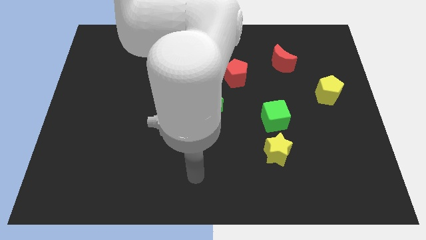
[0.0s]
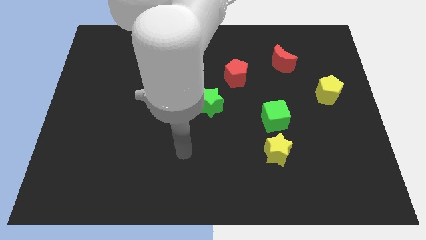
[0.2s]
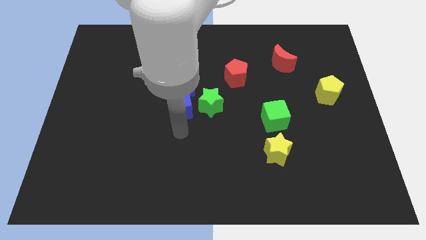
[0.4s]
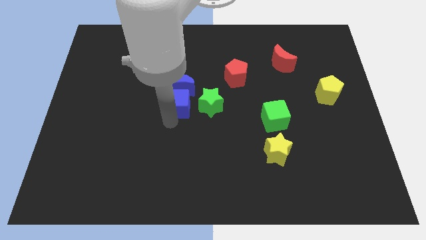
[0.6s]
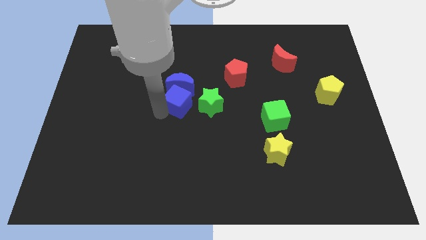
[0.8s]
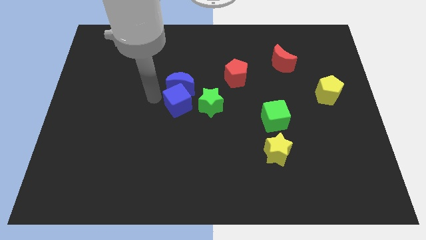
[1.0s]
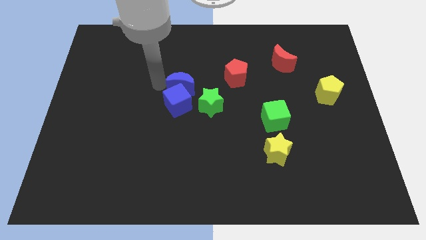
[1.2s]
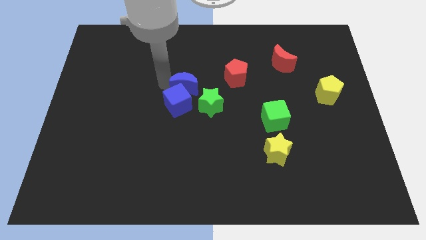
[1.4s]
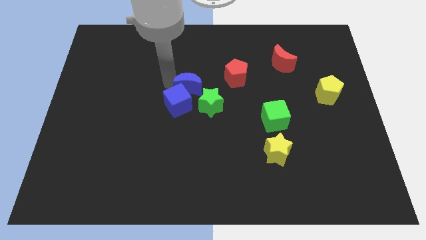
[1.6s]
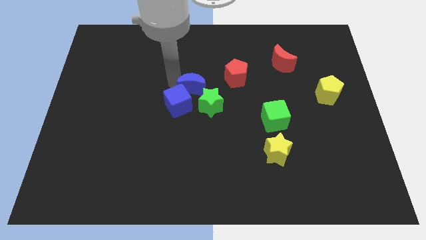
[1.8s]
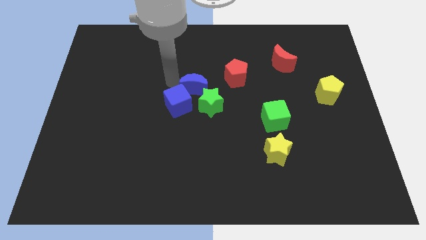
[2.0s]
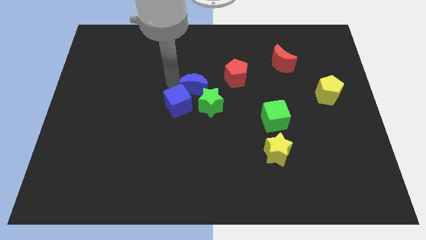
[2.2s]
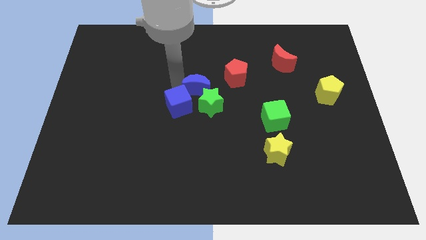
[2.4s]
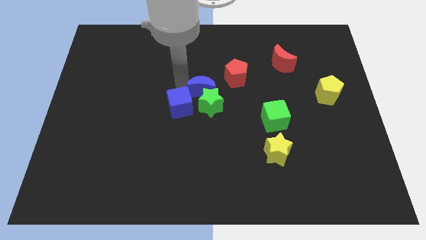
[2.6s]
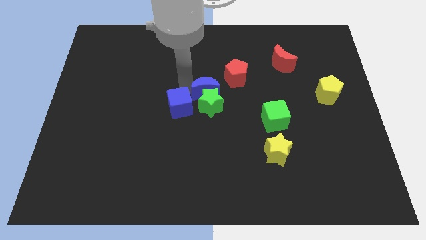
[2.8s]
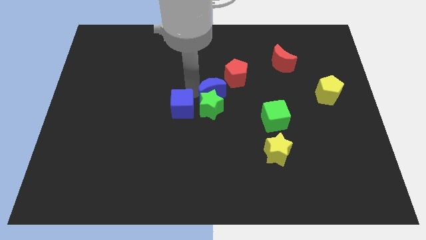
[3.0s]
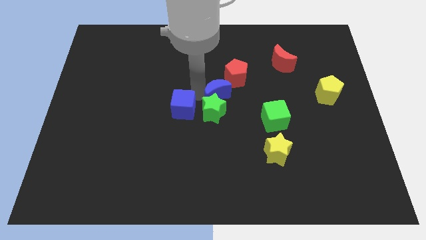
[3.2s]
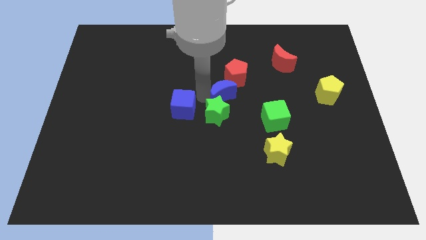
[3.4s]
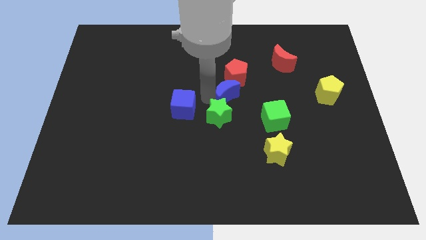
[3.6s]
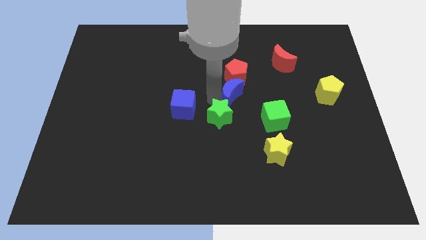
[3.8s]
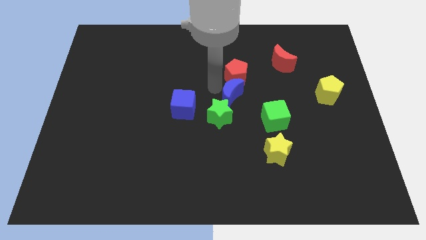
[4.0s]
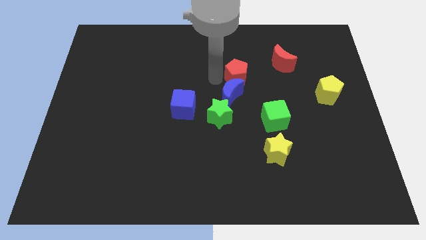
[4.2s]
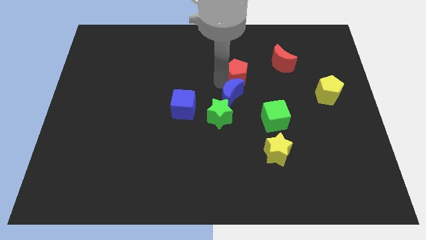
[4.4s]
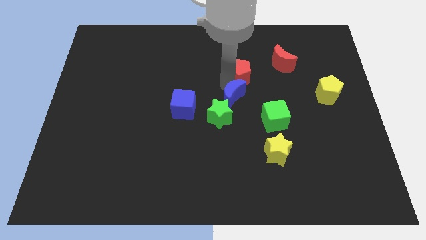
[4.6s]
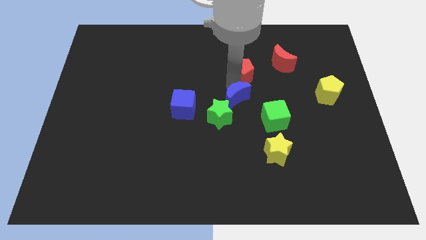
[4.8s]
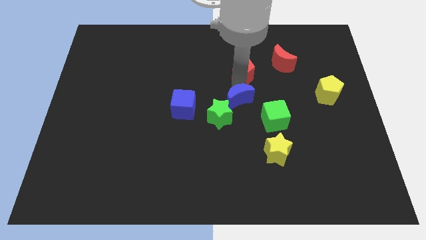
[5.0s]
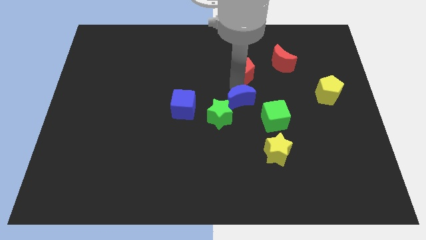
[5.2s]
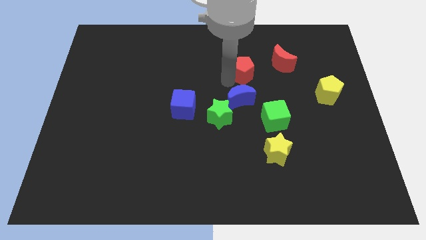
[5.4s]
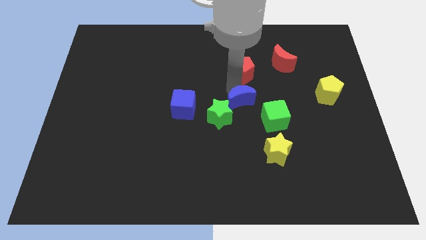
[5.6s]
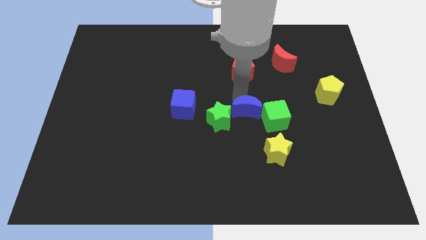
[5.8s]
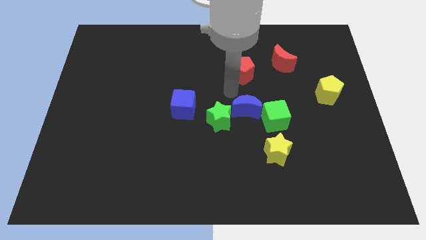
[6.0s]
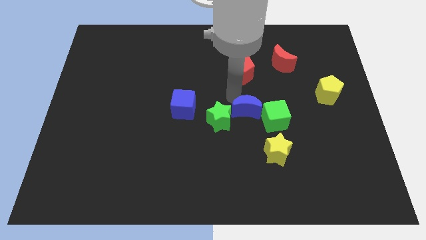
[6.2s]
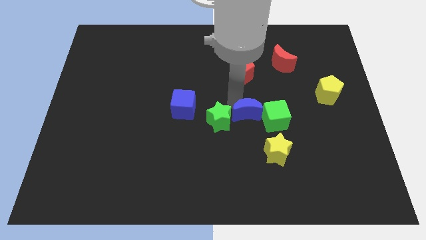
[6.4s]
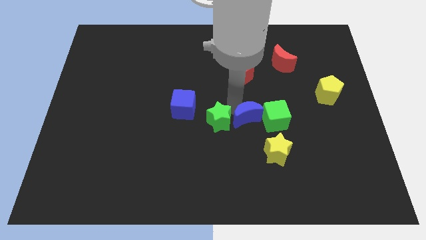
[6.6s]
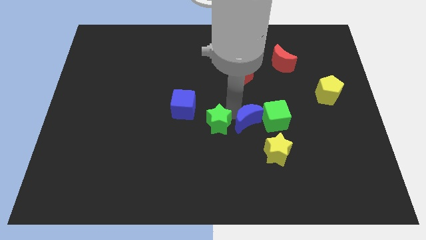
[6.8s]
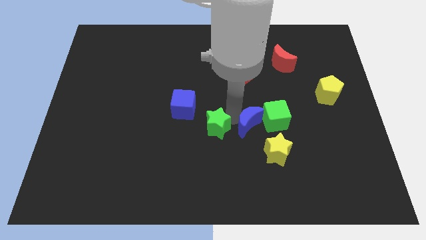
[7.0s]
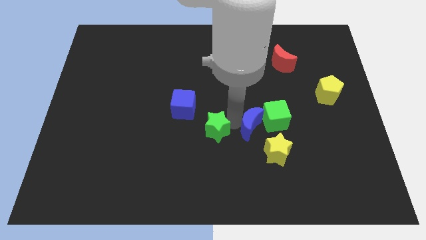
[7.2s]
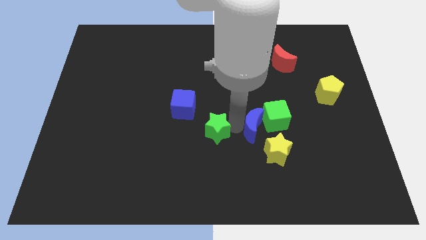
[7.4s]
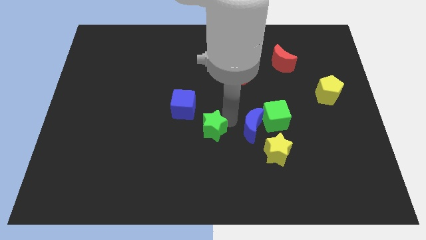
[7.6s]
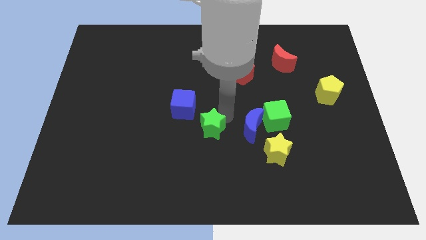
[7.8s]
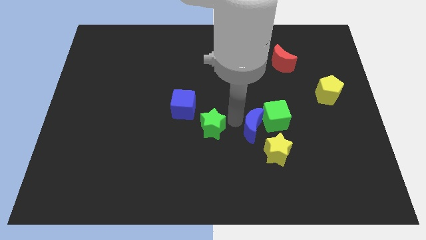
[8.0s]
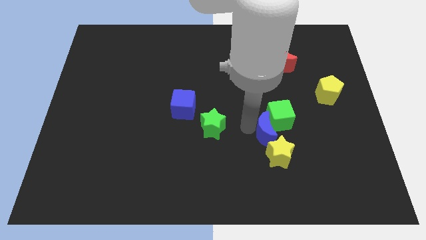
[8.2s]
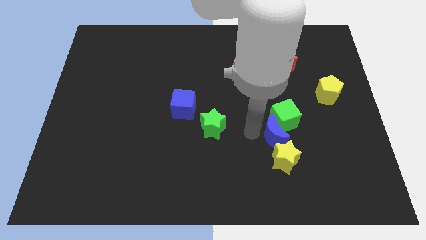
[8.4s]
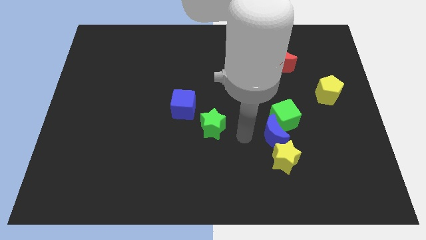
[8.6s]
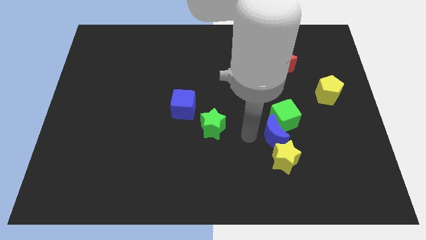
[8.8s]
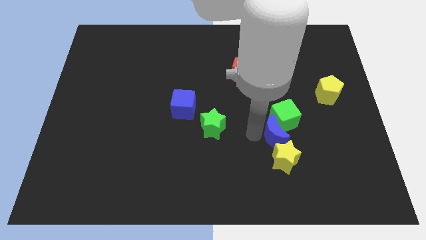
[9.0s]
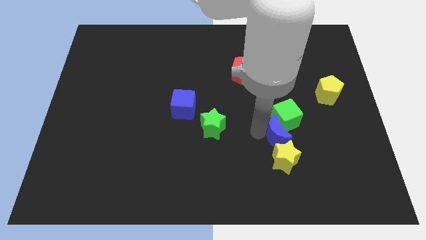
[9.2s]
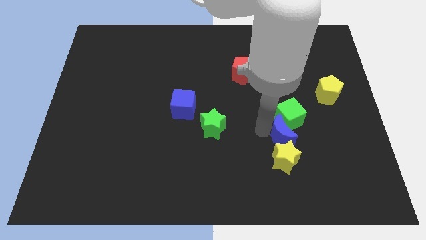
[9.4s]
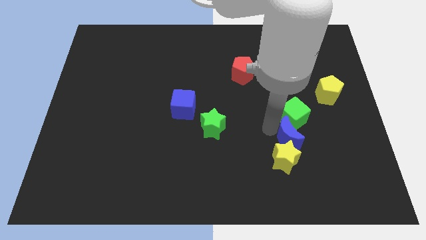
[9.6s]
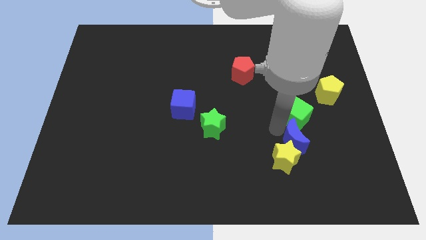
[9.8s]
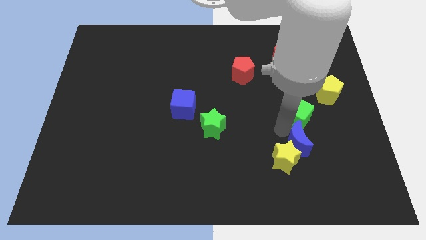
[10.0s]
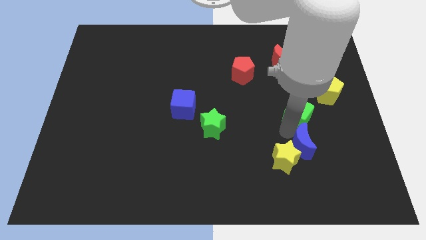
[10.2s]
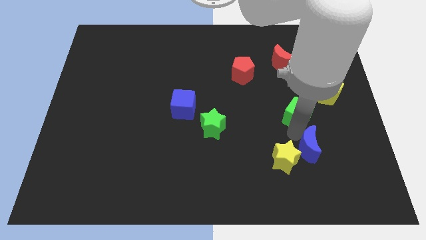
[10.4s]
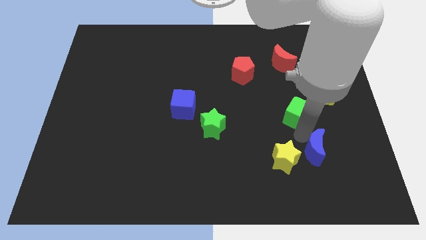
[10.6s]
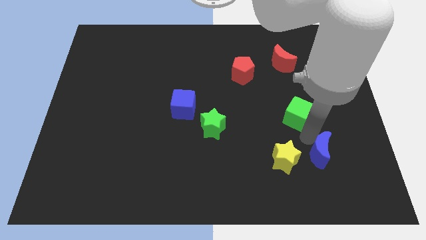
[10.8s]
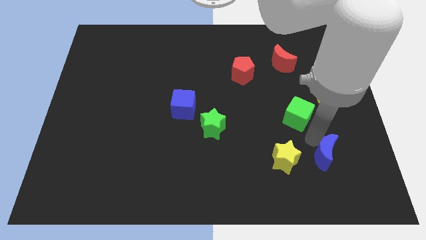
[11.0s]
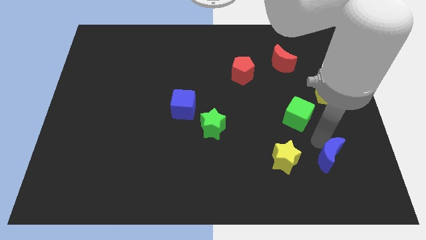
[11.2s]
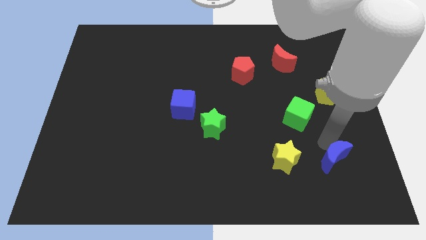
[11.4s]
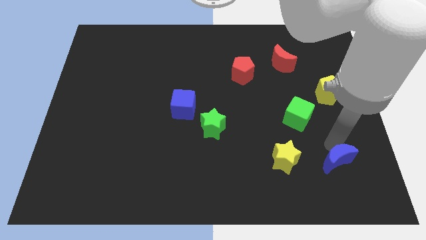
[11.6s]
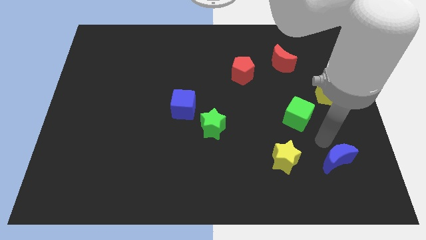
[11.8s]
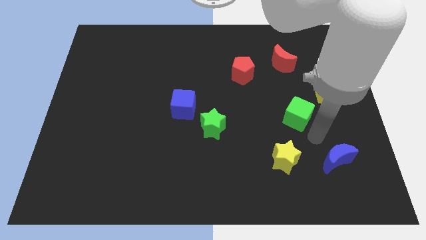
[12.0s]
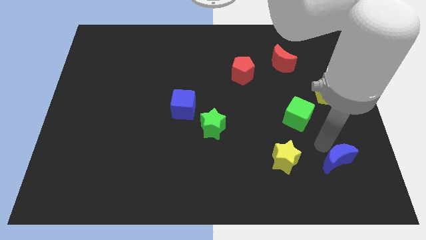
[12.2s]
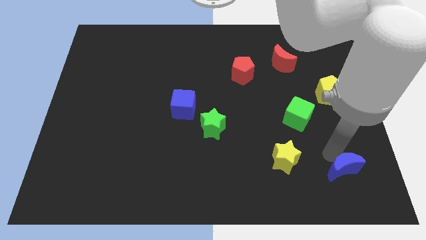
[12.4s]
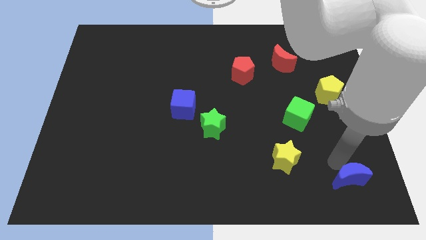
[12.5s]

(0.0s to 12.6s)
put the blue moon to the bottom right
